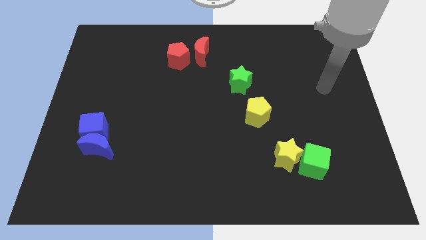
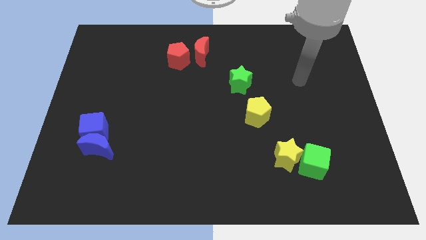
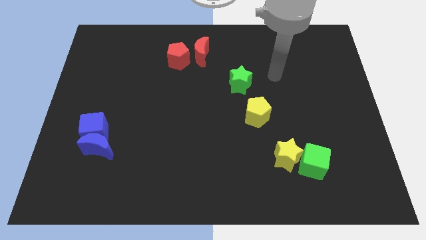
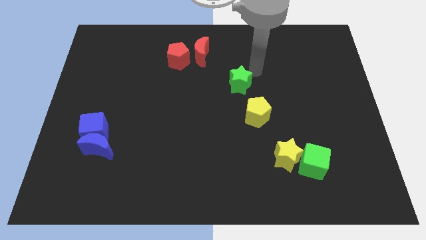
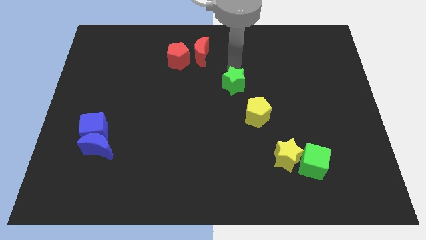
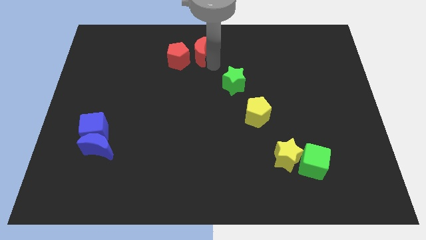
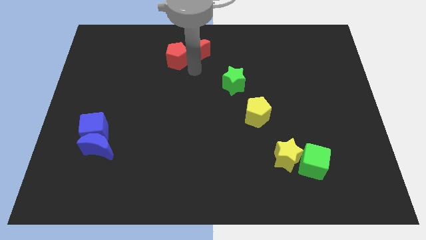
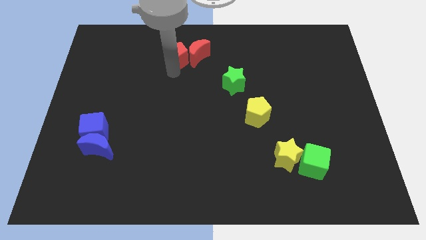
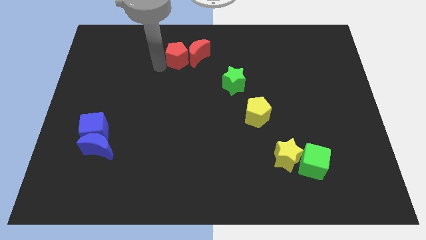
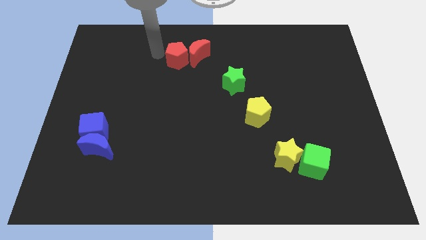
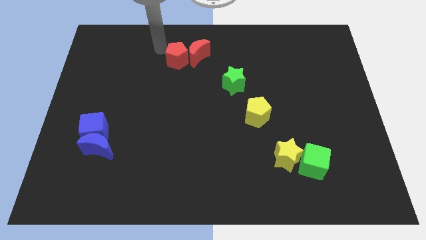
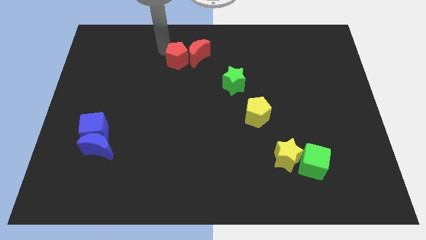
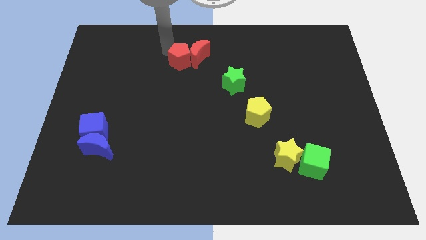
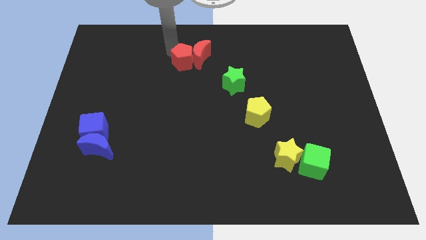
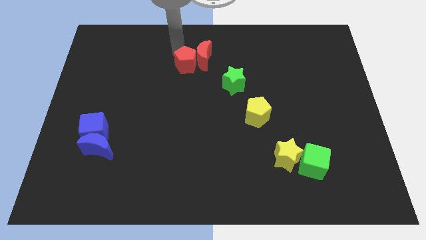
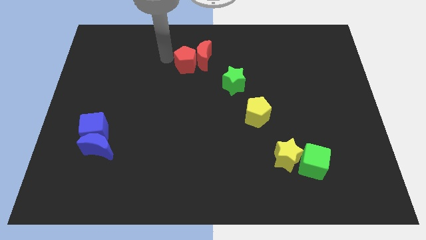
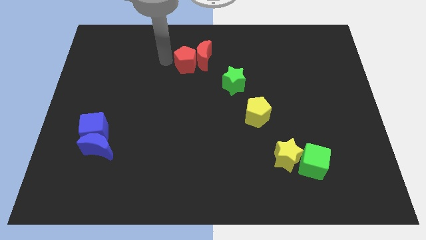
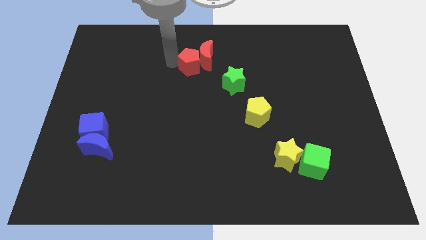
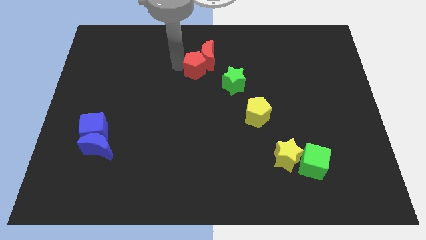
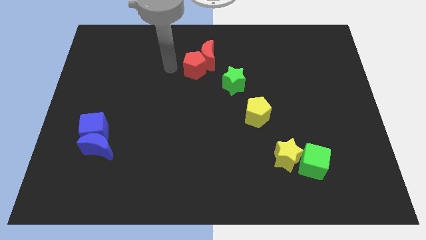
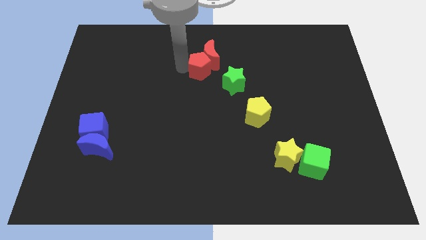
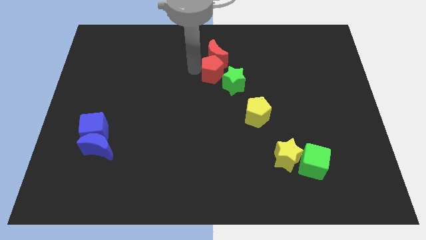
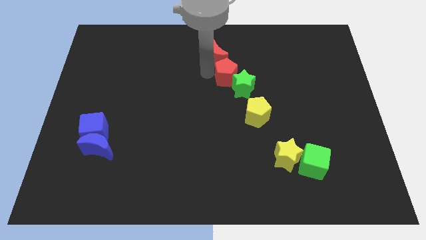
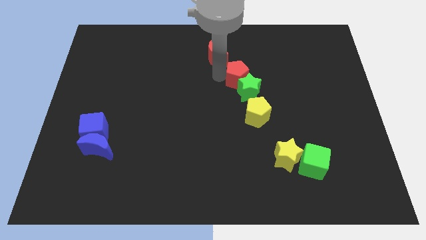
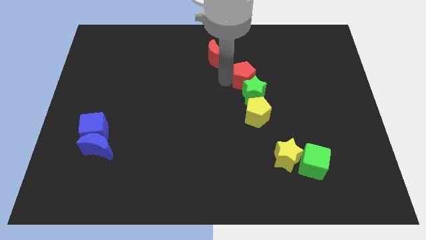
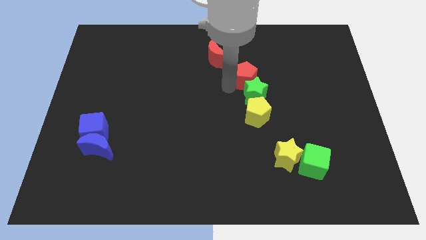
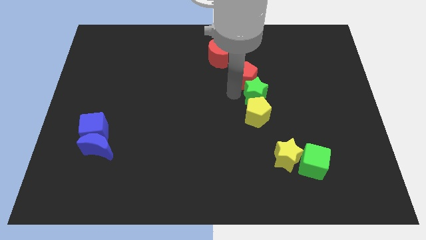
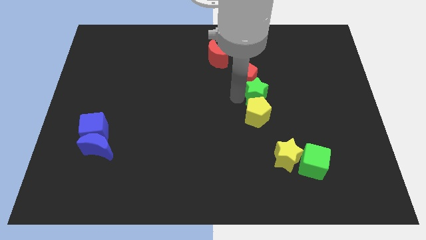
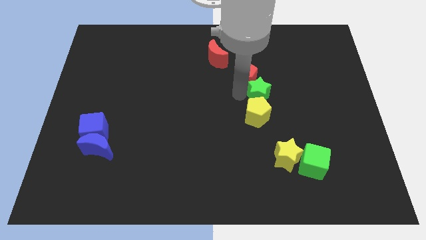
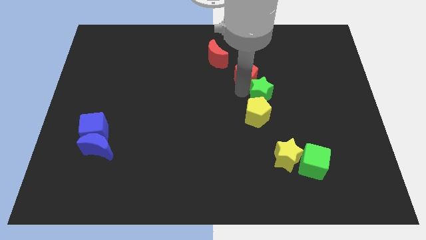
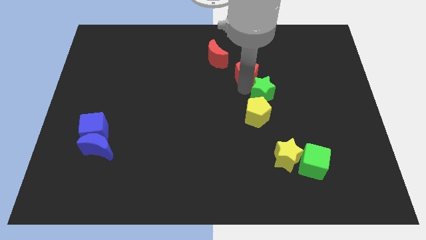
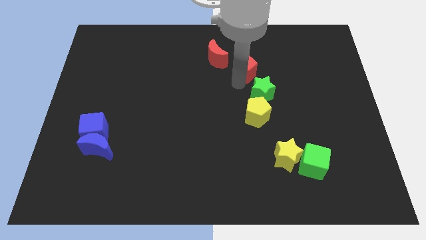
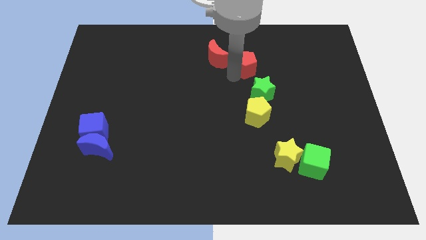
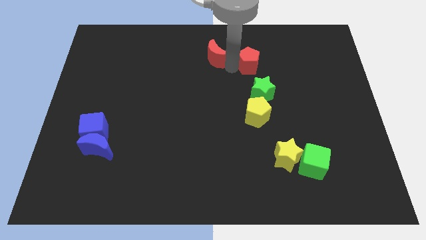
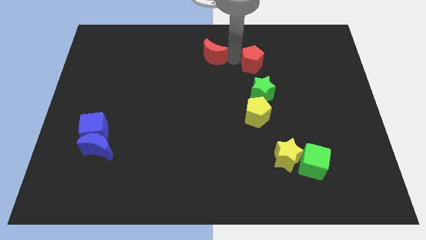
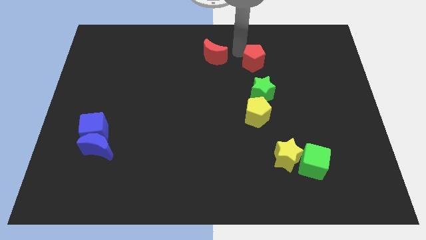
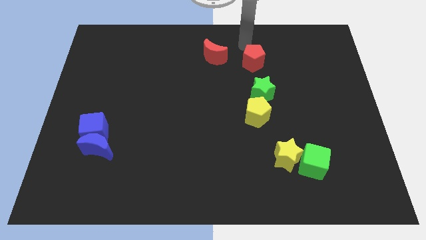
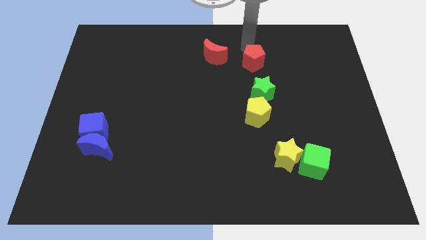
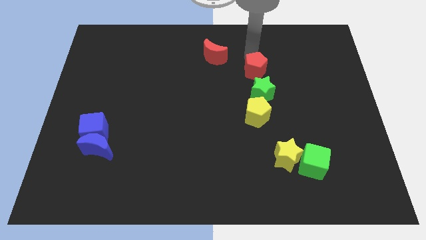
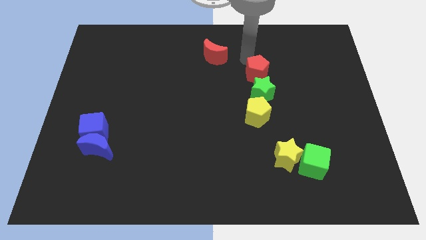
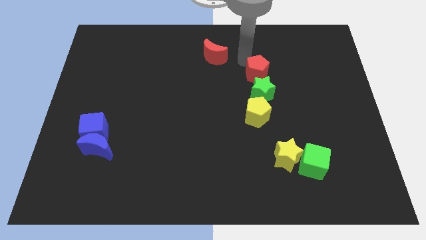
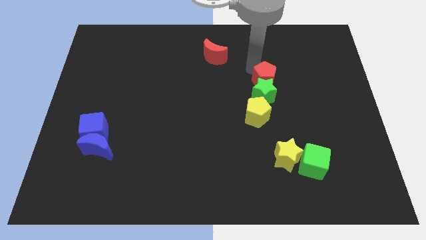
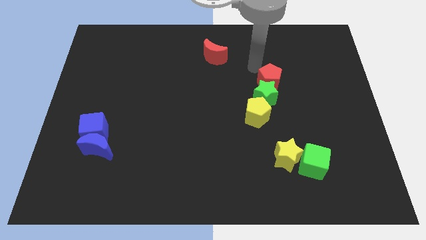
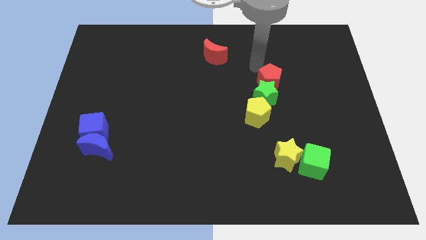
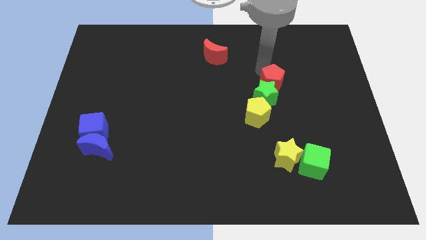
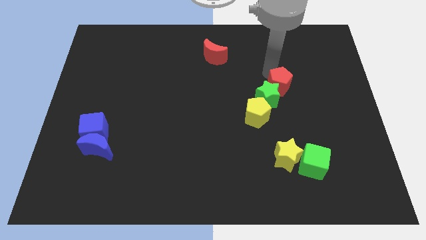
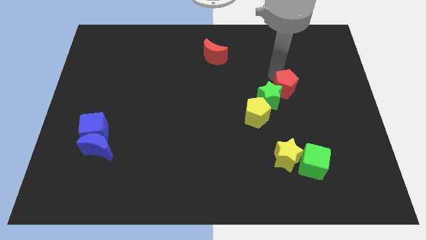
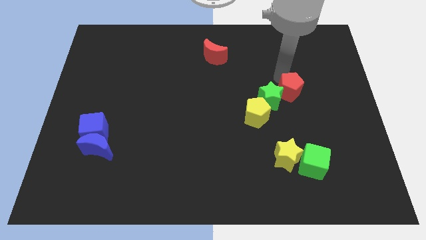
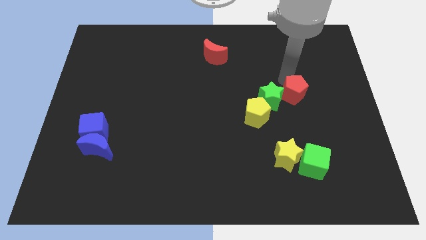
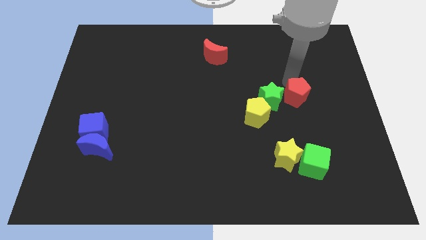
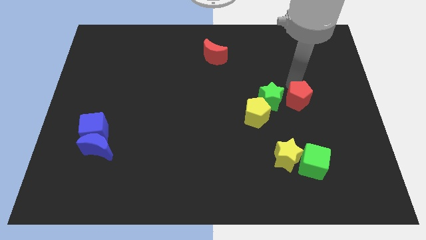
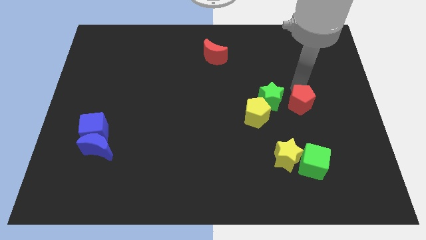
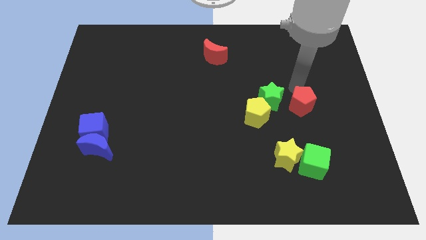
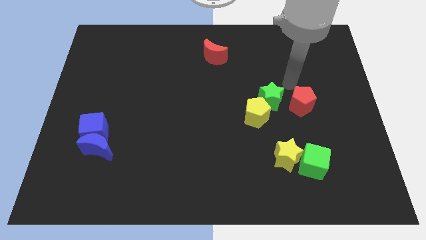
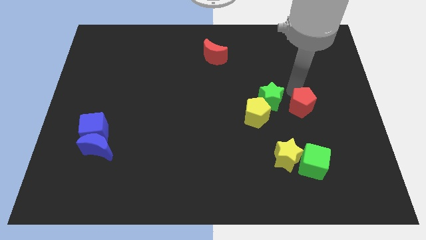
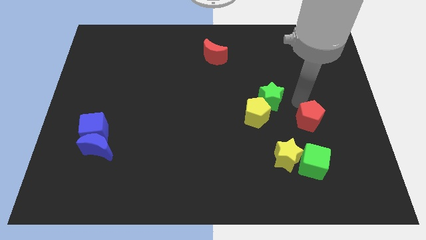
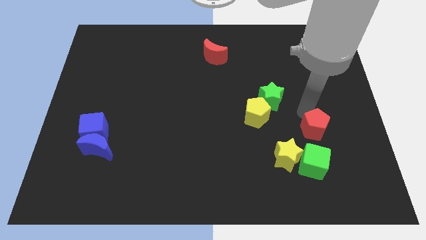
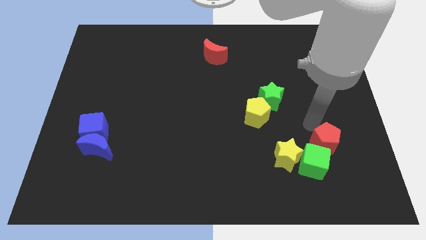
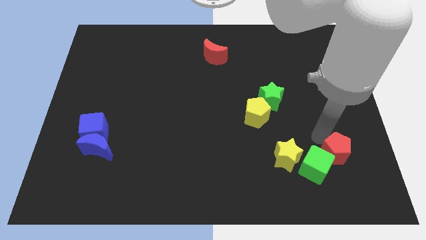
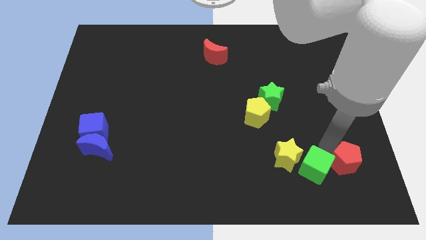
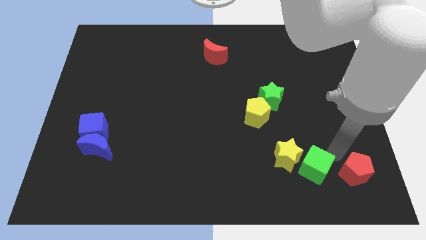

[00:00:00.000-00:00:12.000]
put the red pentagon to the bottom right of the board

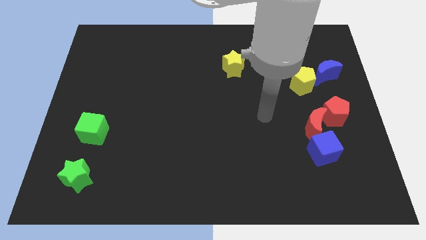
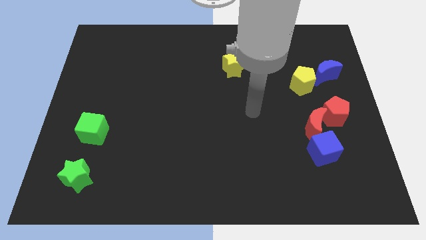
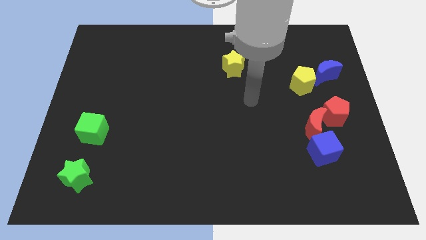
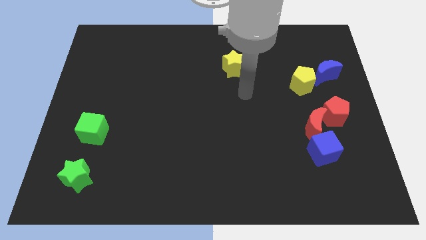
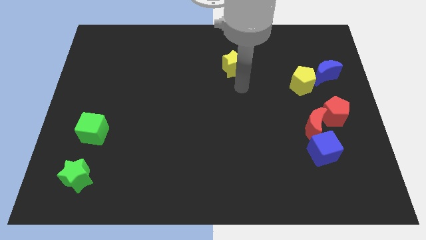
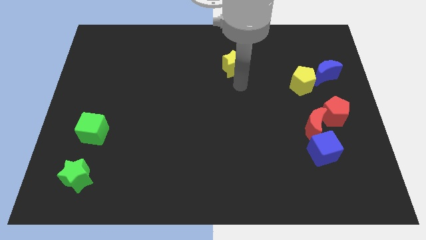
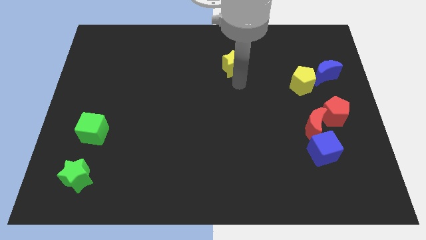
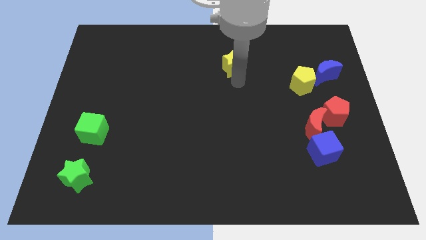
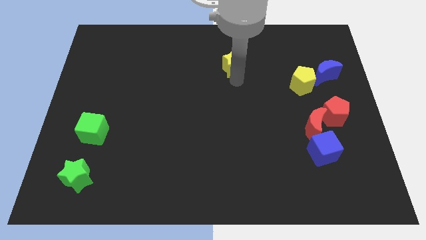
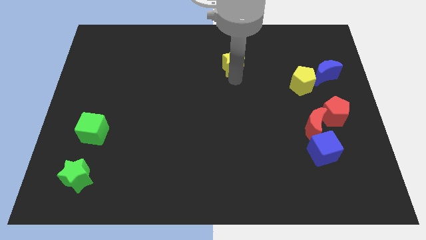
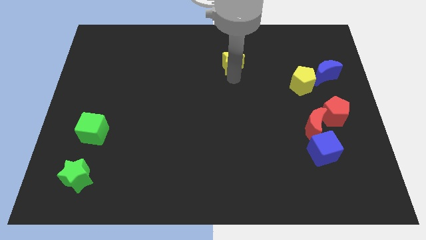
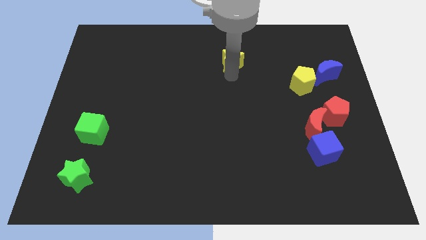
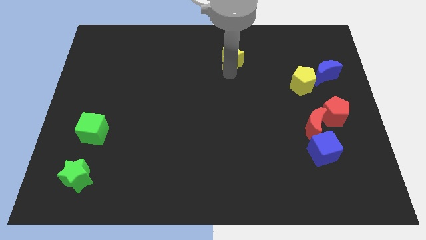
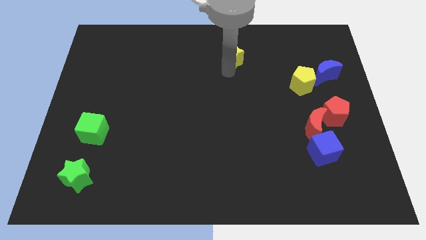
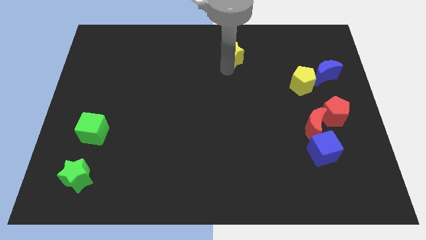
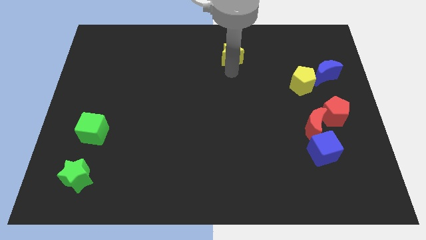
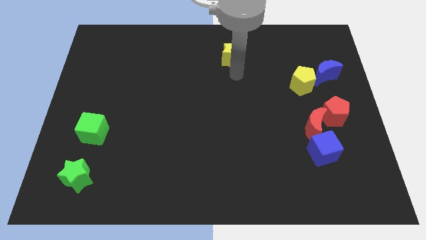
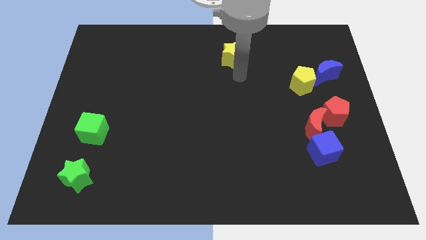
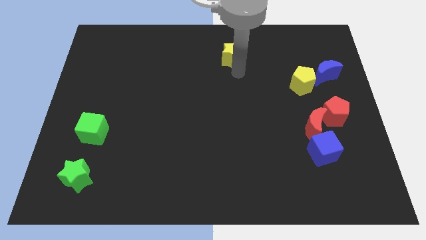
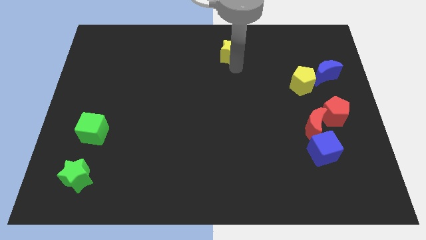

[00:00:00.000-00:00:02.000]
put the yellow star to the towards your base

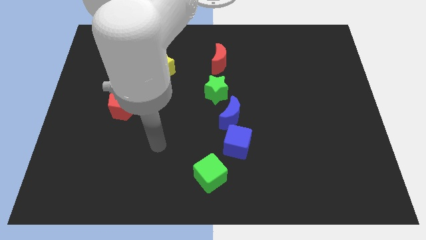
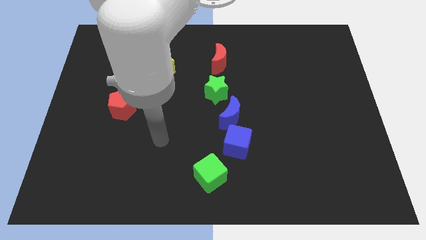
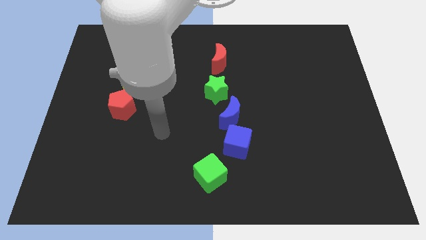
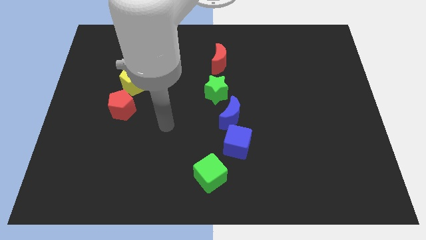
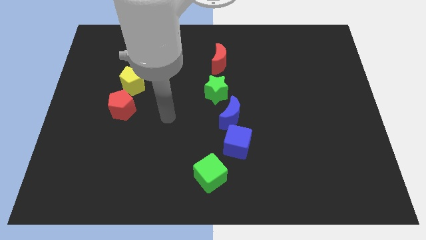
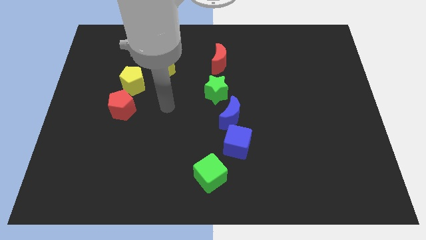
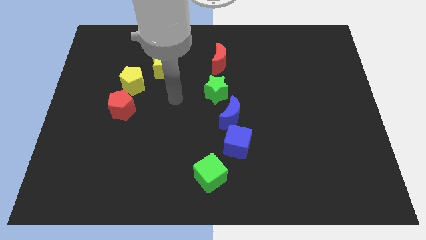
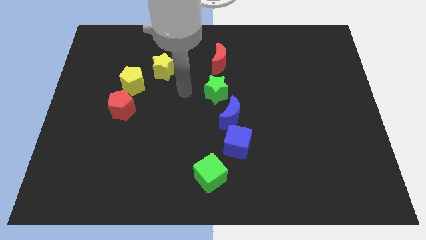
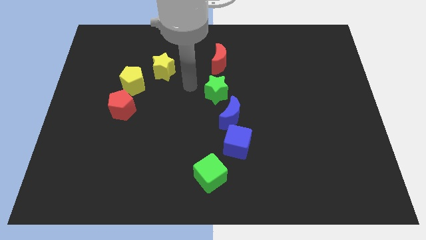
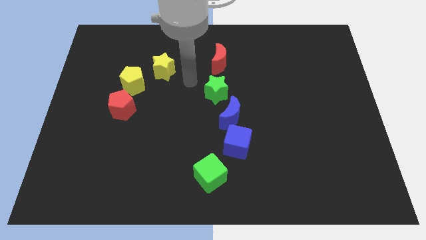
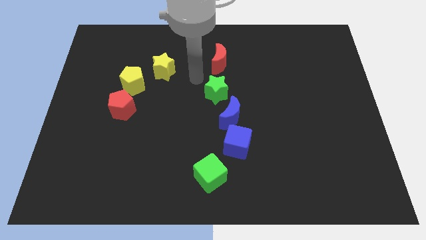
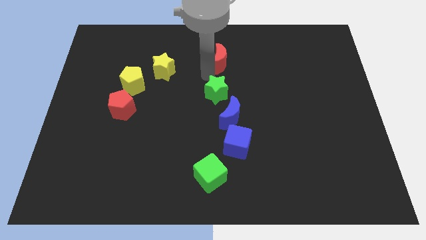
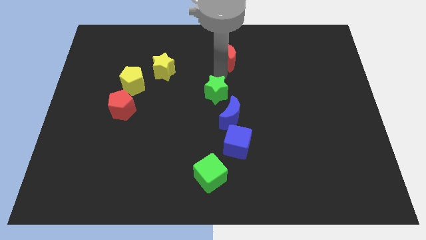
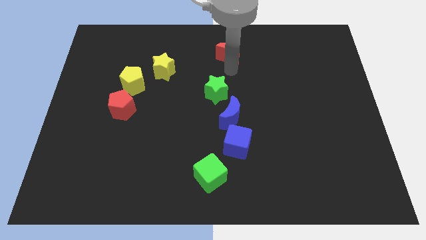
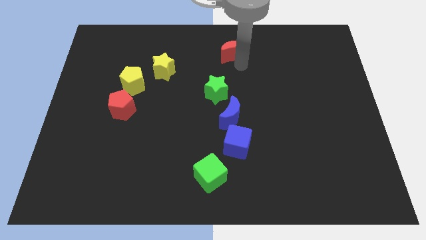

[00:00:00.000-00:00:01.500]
slide the red moon to the top side
